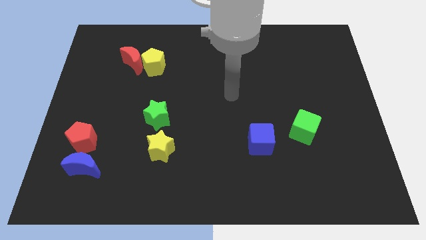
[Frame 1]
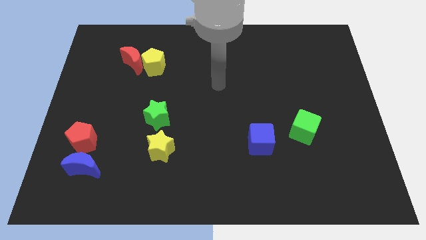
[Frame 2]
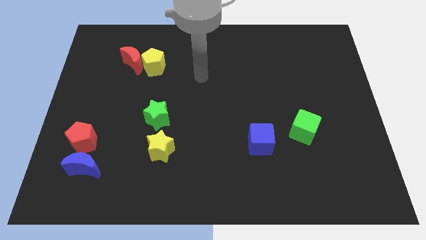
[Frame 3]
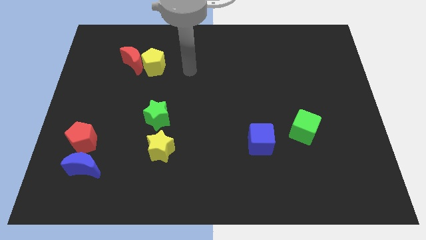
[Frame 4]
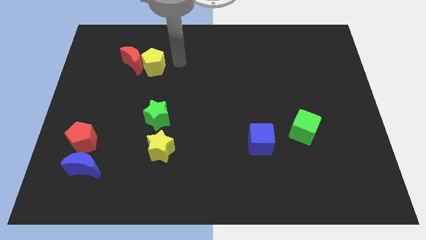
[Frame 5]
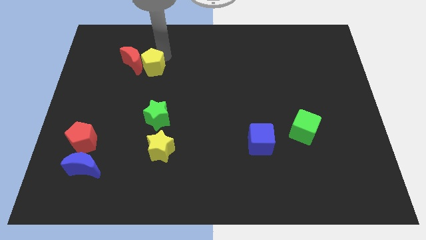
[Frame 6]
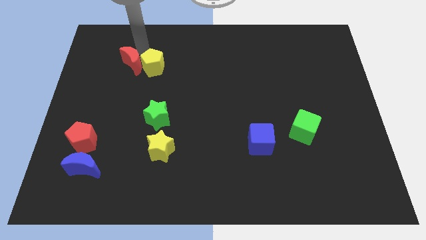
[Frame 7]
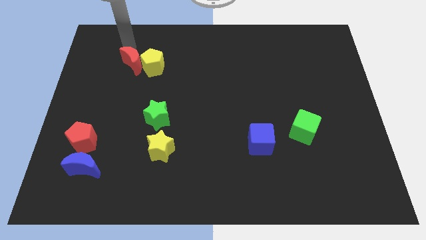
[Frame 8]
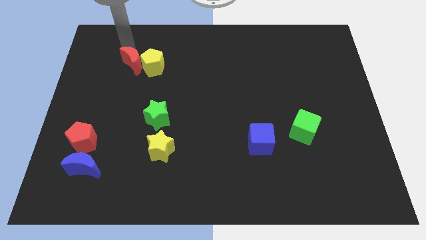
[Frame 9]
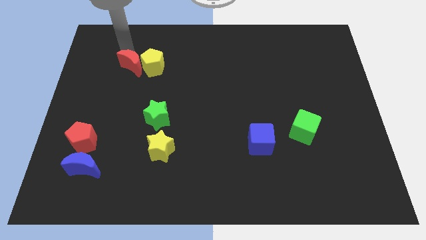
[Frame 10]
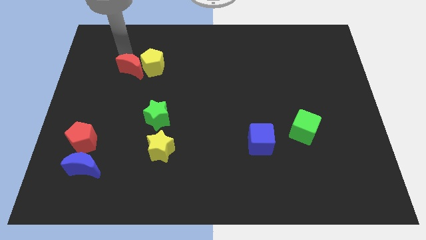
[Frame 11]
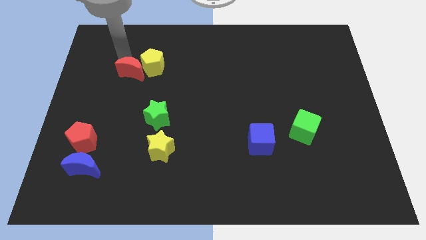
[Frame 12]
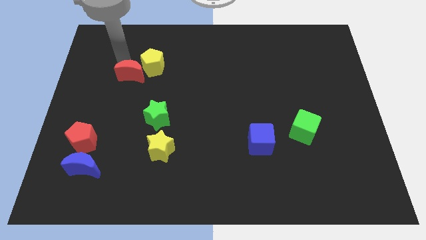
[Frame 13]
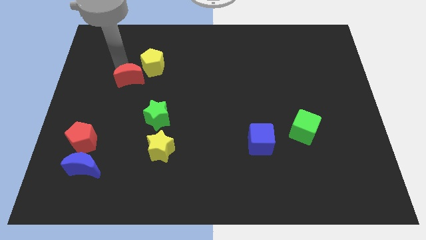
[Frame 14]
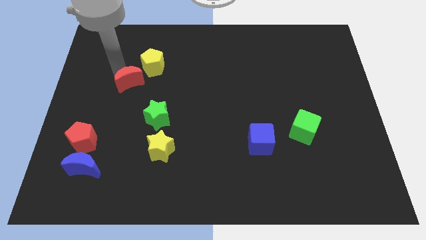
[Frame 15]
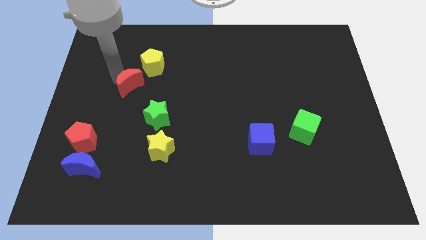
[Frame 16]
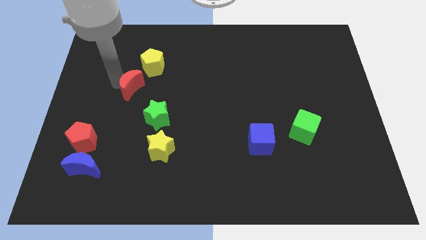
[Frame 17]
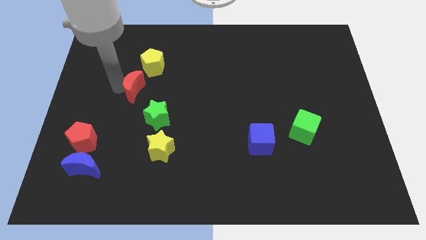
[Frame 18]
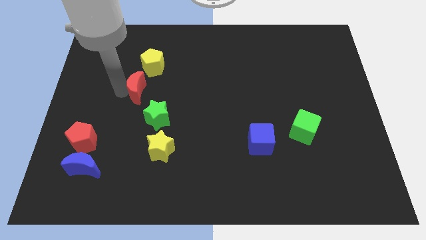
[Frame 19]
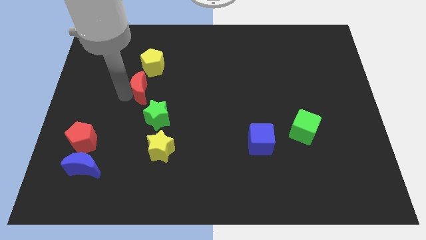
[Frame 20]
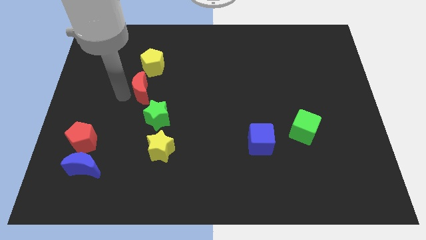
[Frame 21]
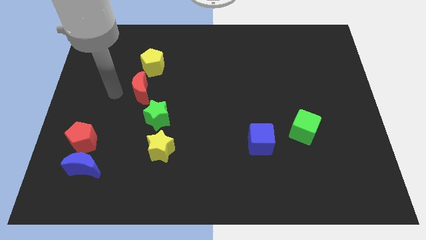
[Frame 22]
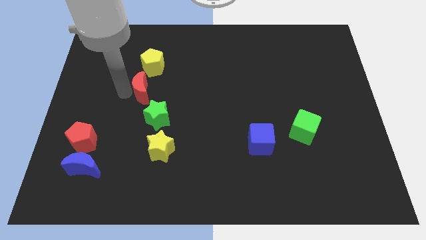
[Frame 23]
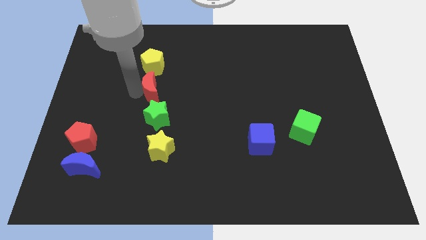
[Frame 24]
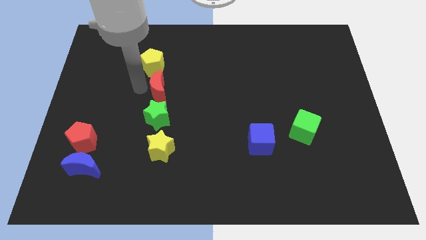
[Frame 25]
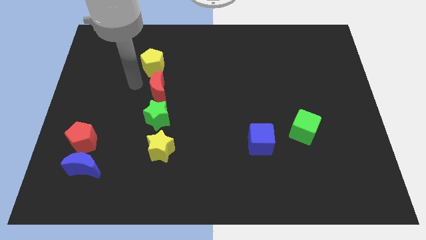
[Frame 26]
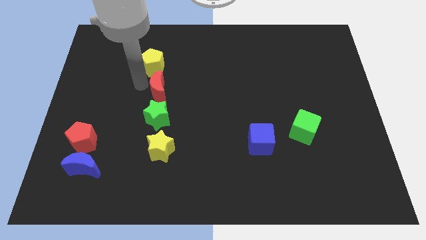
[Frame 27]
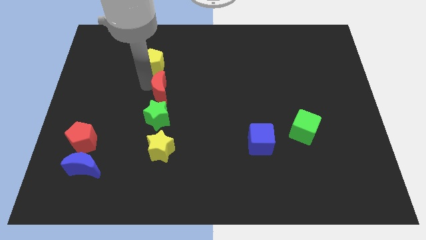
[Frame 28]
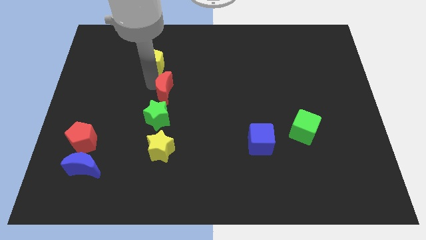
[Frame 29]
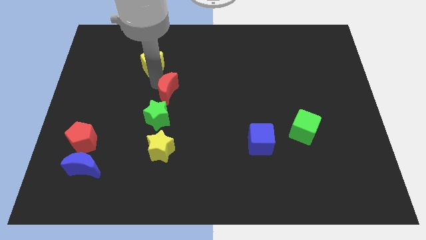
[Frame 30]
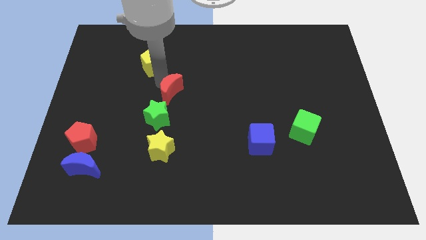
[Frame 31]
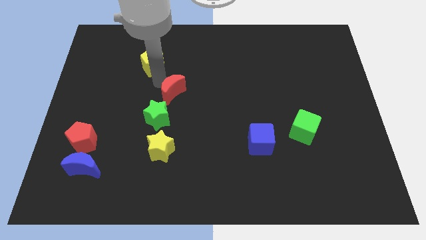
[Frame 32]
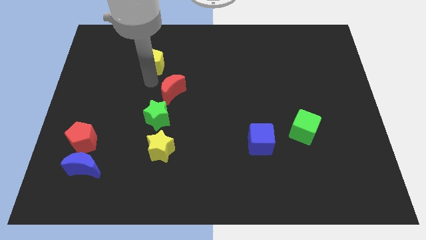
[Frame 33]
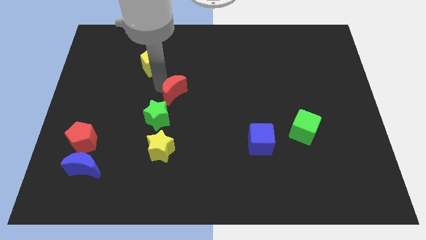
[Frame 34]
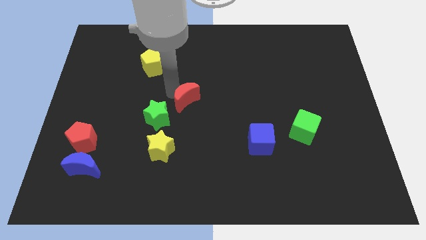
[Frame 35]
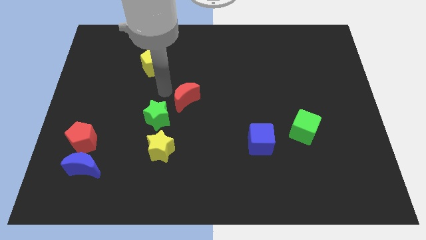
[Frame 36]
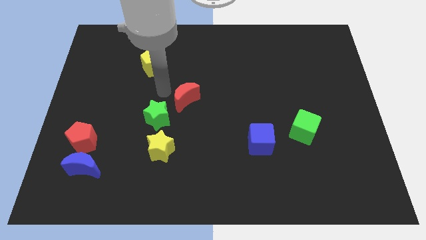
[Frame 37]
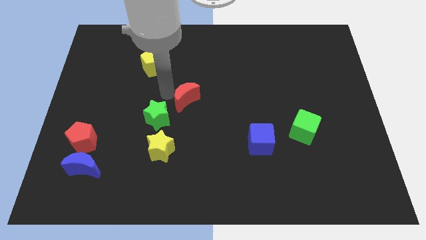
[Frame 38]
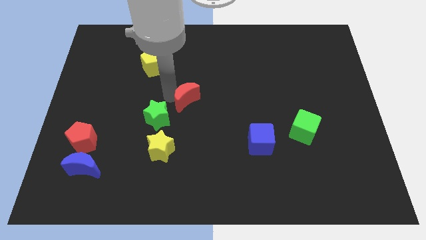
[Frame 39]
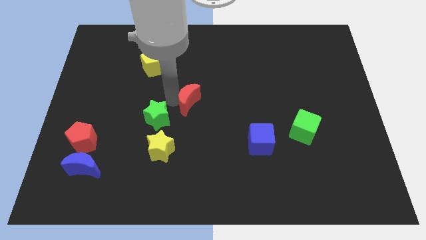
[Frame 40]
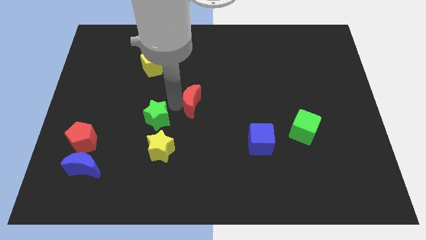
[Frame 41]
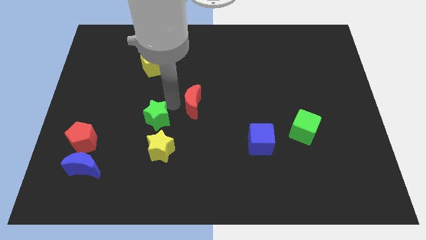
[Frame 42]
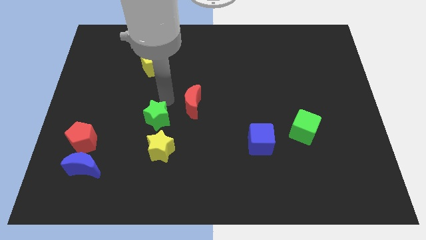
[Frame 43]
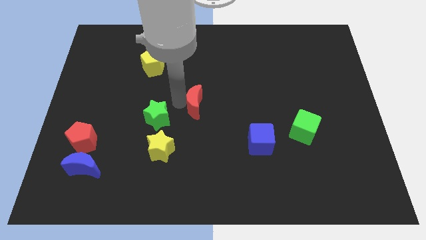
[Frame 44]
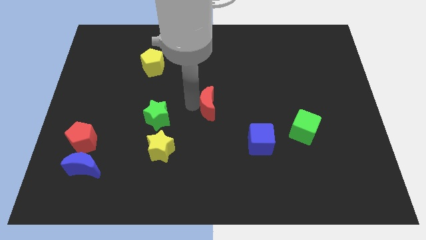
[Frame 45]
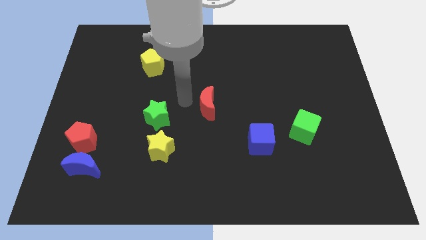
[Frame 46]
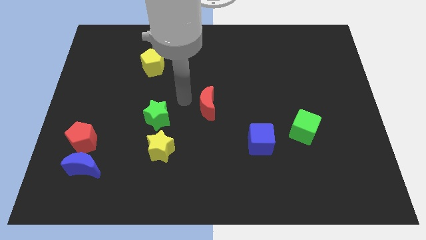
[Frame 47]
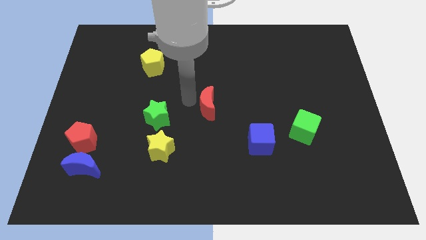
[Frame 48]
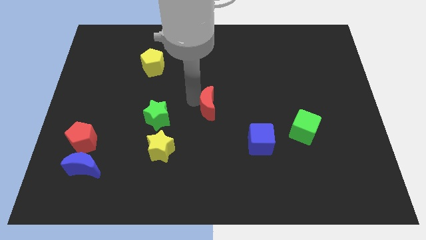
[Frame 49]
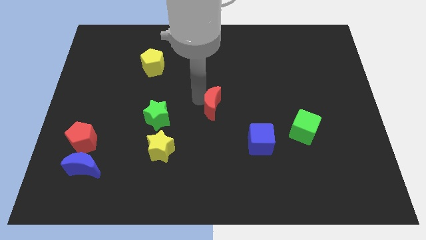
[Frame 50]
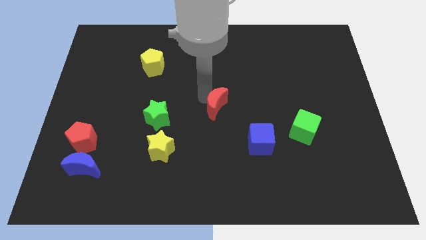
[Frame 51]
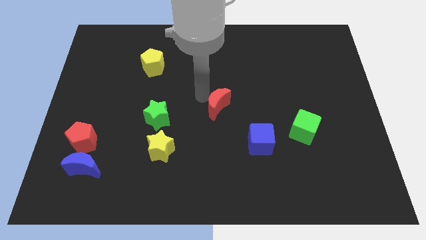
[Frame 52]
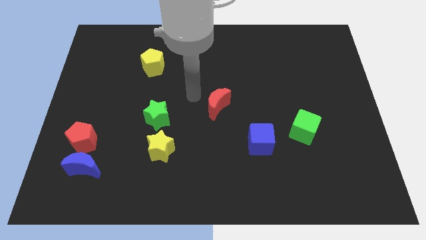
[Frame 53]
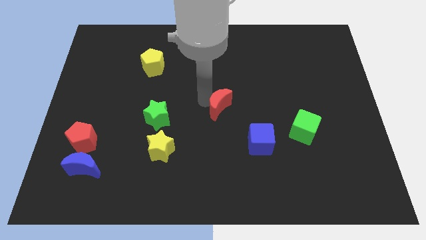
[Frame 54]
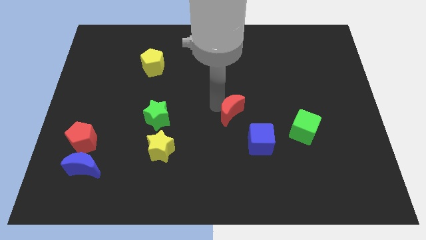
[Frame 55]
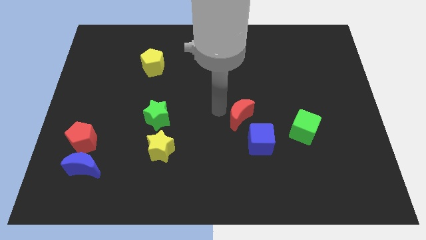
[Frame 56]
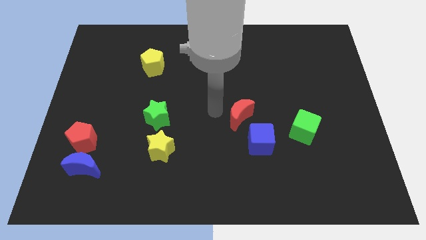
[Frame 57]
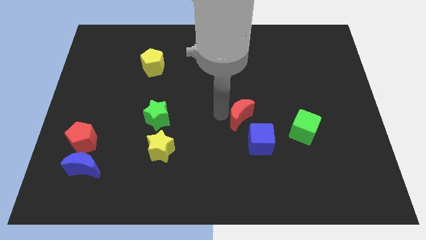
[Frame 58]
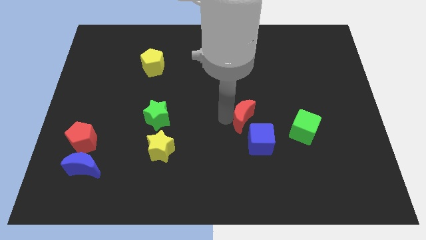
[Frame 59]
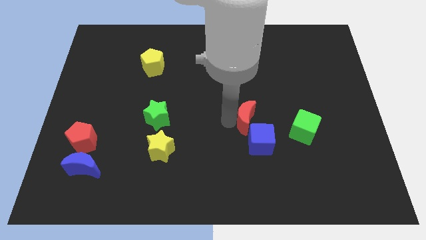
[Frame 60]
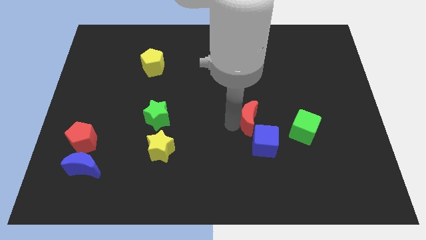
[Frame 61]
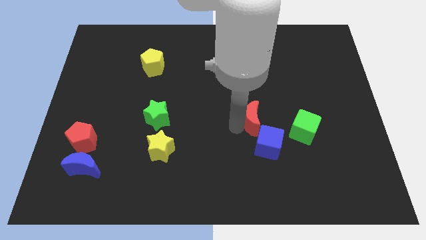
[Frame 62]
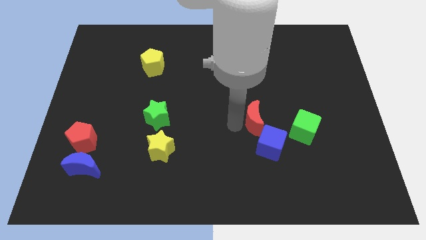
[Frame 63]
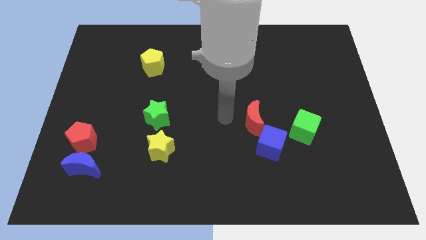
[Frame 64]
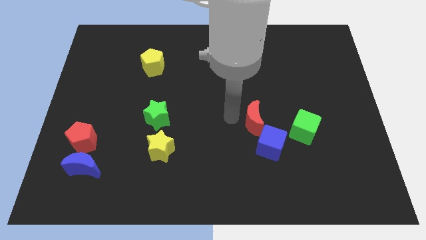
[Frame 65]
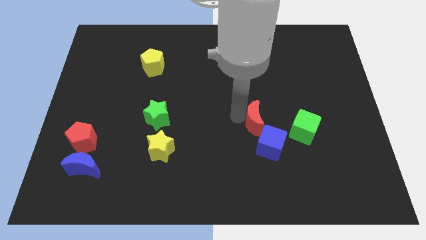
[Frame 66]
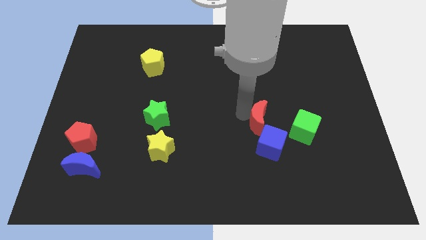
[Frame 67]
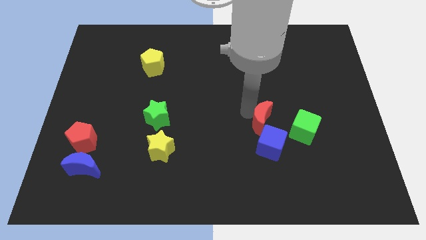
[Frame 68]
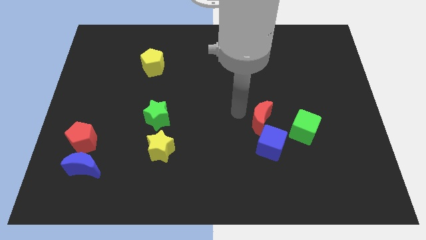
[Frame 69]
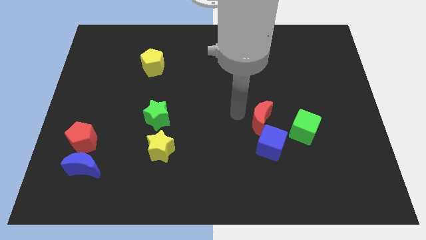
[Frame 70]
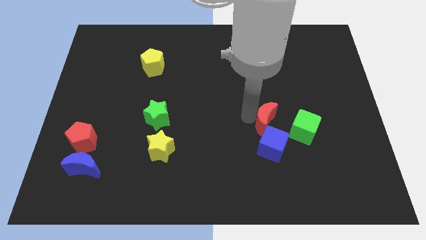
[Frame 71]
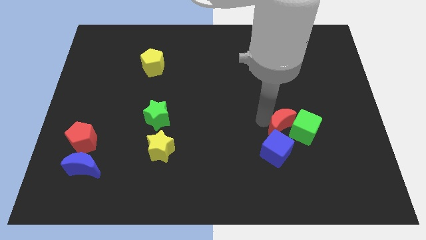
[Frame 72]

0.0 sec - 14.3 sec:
slide the red moon towards the green cube
